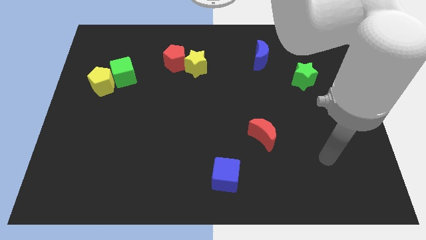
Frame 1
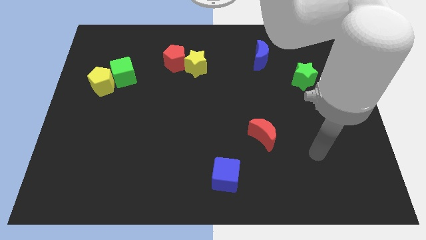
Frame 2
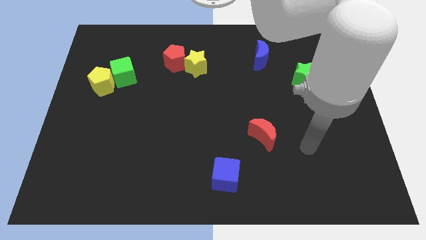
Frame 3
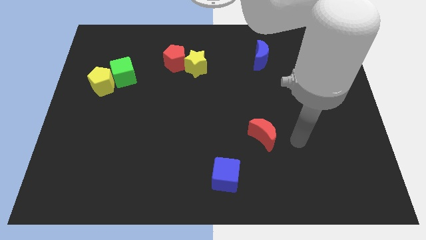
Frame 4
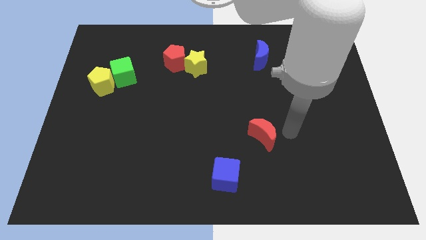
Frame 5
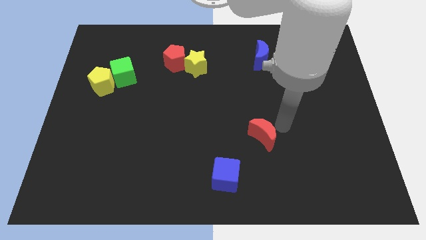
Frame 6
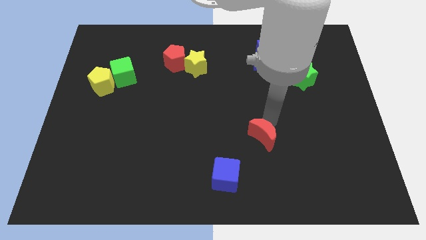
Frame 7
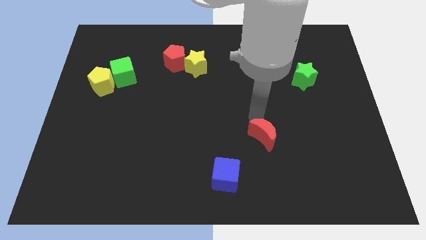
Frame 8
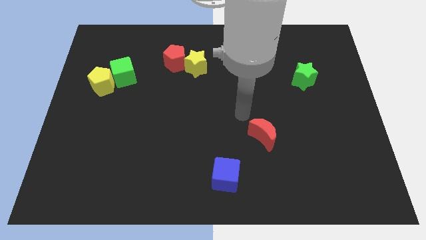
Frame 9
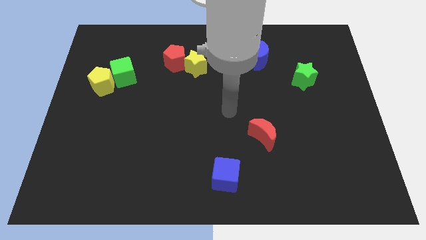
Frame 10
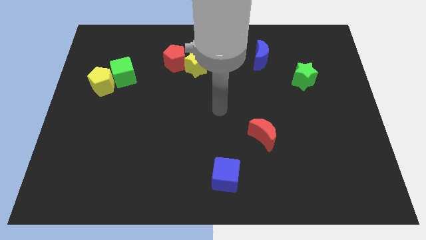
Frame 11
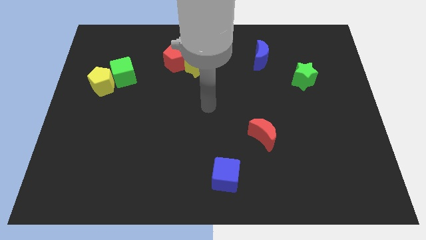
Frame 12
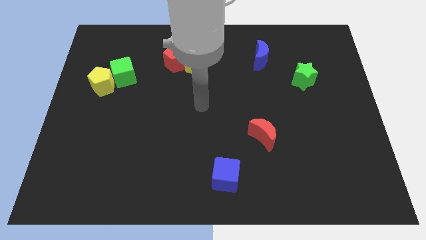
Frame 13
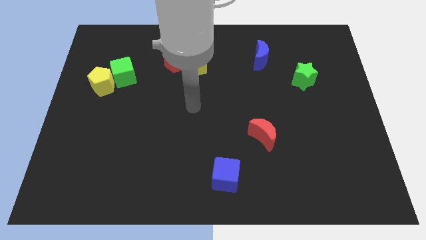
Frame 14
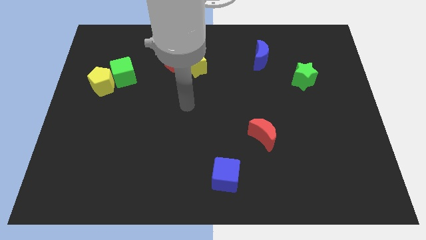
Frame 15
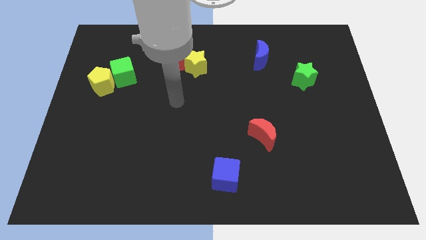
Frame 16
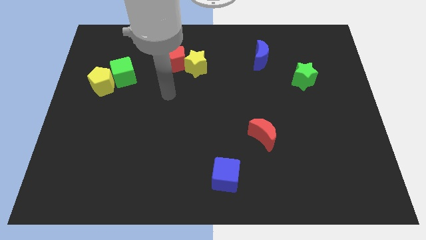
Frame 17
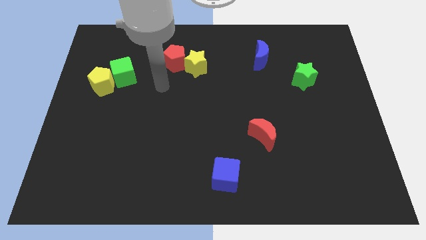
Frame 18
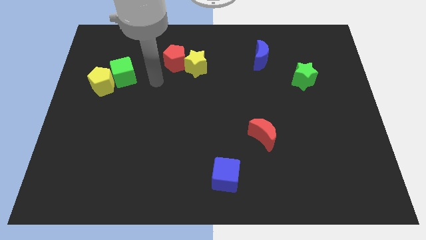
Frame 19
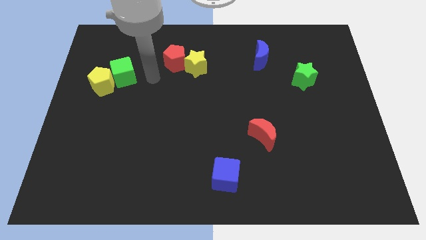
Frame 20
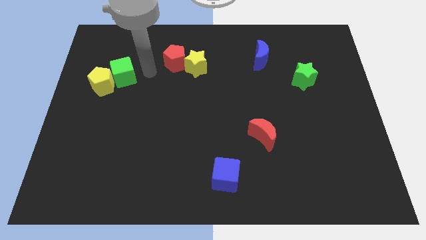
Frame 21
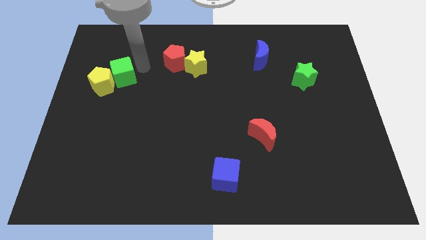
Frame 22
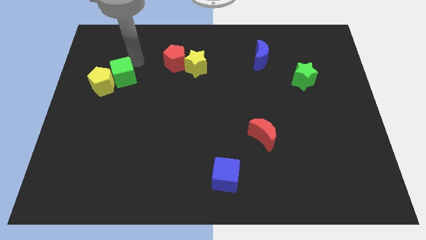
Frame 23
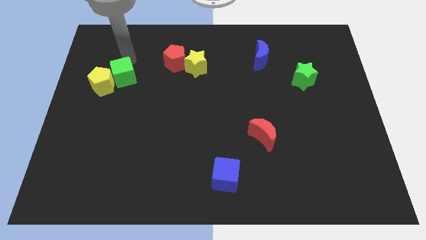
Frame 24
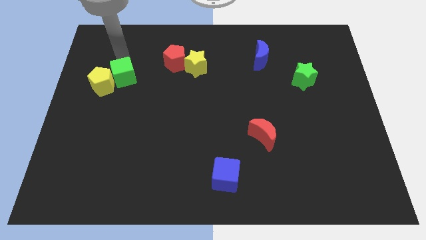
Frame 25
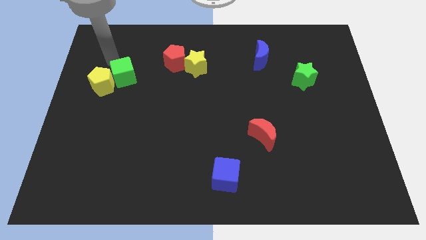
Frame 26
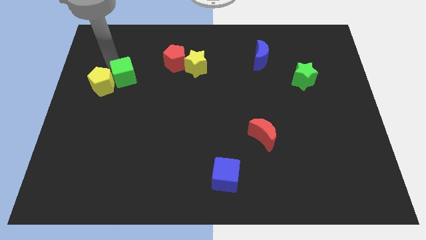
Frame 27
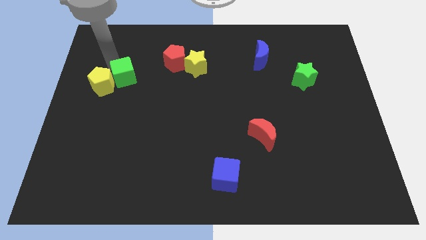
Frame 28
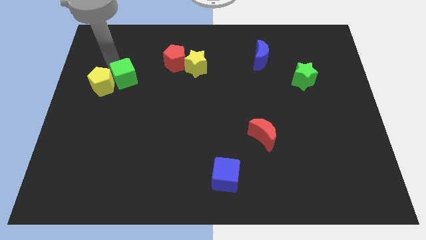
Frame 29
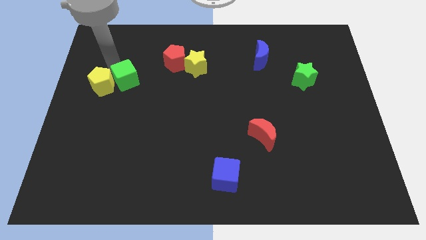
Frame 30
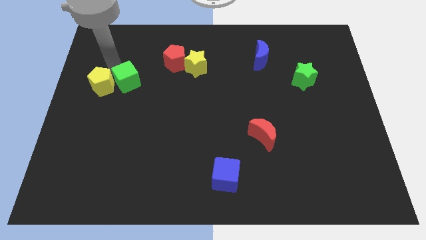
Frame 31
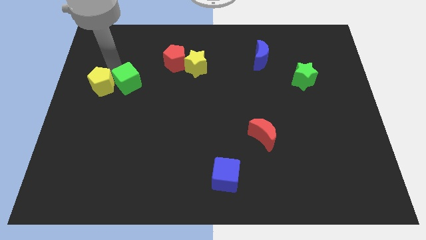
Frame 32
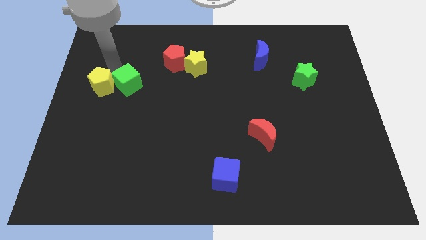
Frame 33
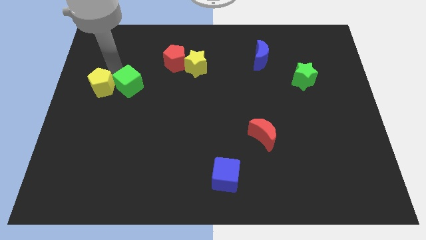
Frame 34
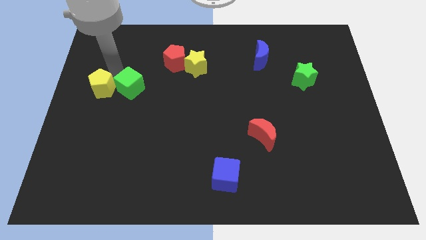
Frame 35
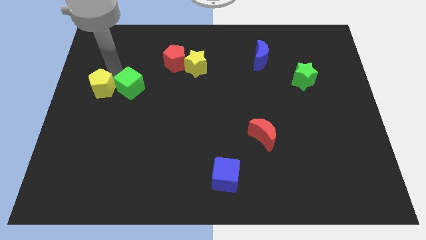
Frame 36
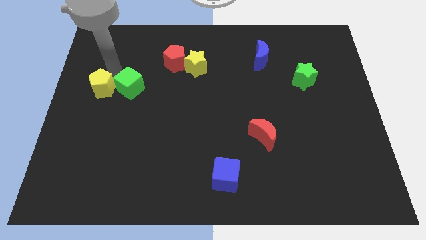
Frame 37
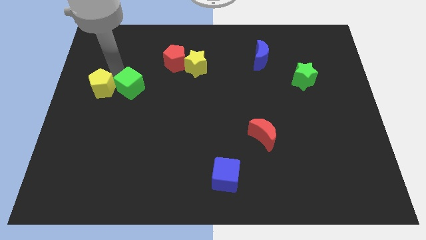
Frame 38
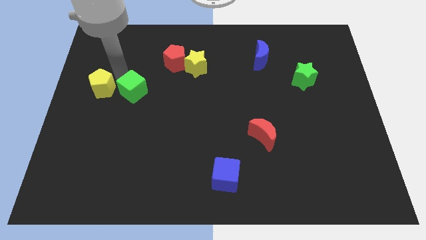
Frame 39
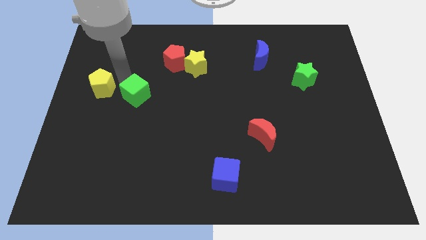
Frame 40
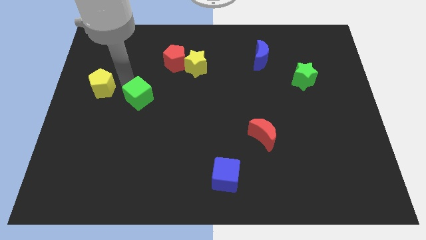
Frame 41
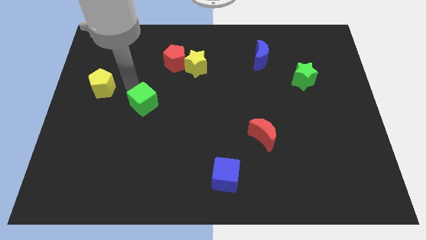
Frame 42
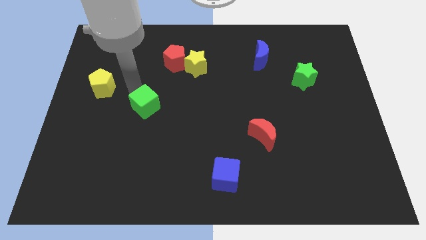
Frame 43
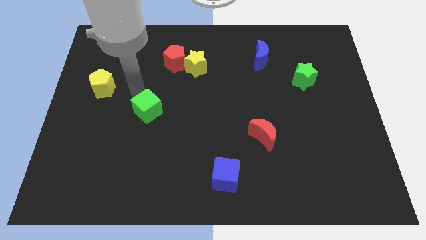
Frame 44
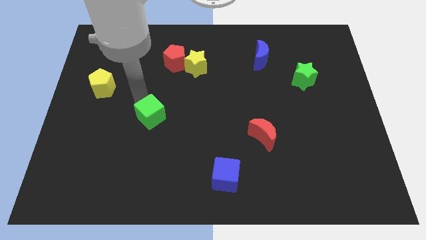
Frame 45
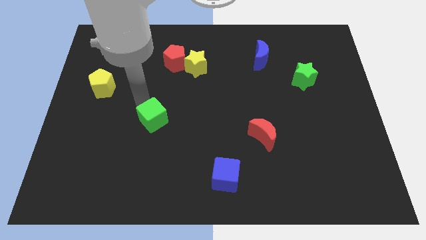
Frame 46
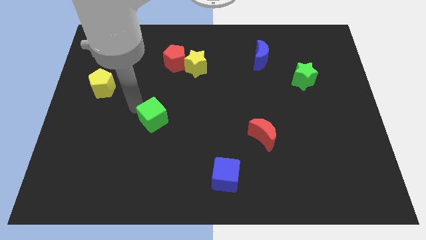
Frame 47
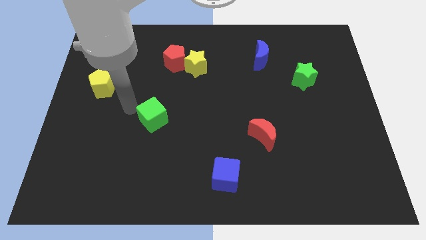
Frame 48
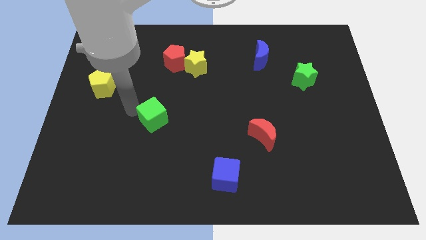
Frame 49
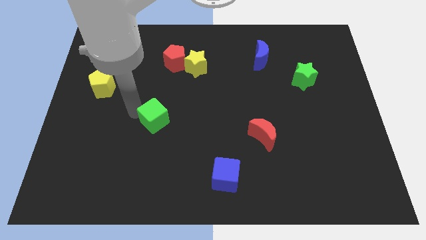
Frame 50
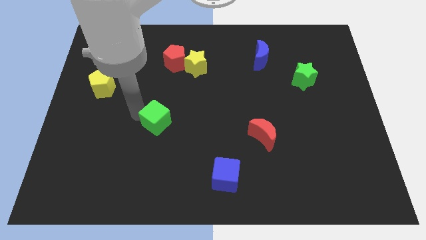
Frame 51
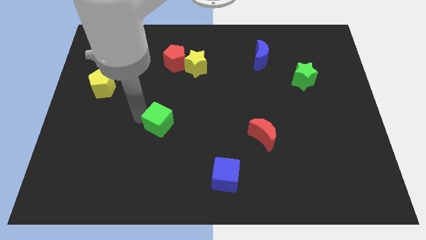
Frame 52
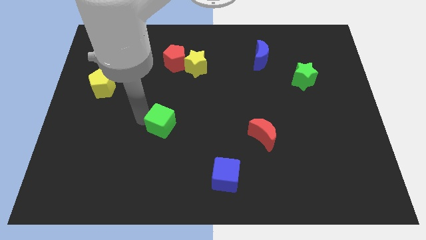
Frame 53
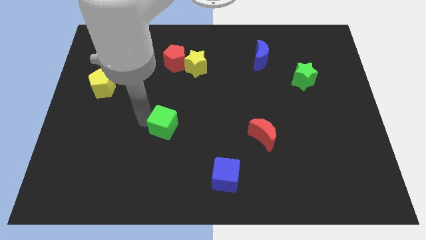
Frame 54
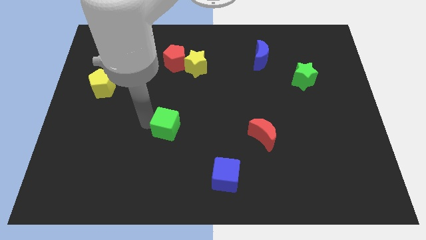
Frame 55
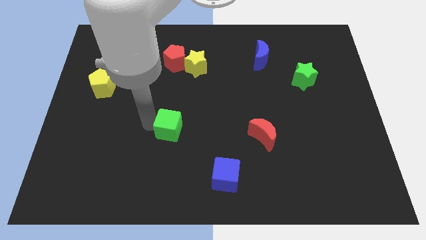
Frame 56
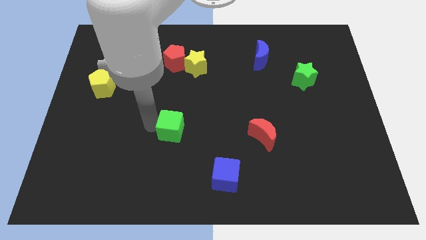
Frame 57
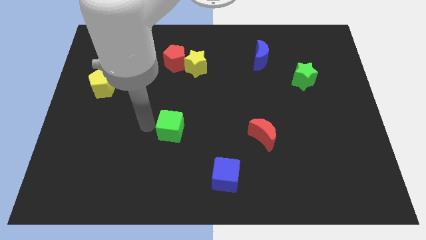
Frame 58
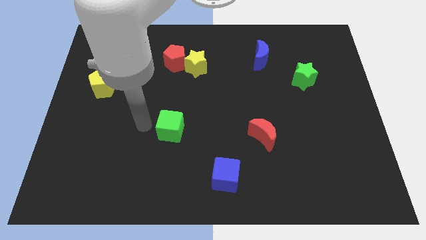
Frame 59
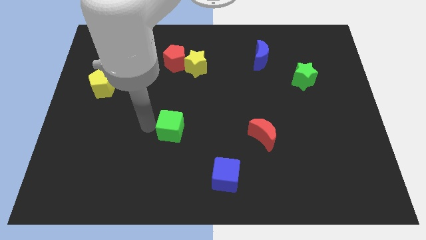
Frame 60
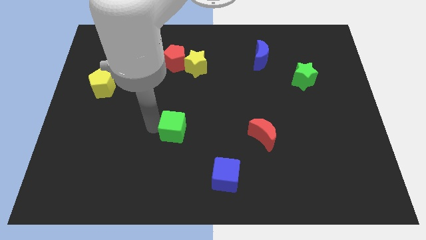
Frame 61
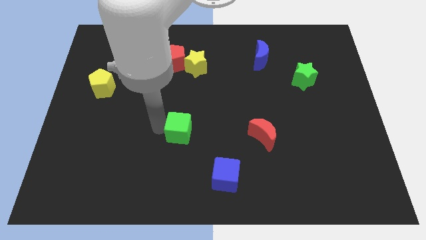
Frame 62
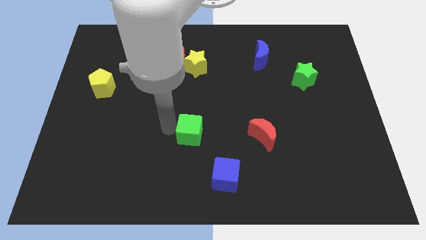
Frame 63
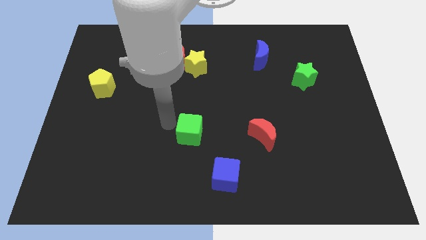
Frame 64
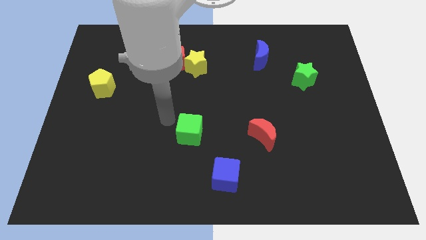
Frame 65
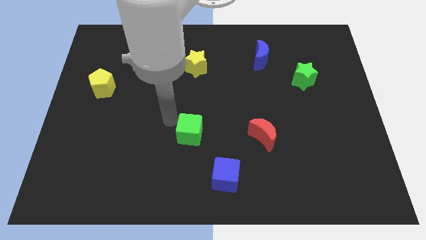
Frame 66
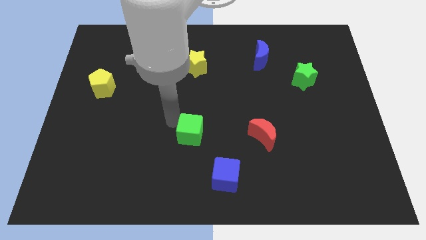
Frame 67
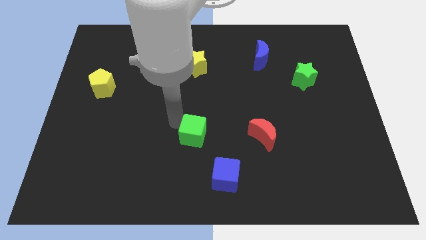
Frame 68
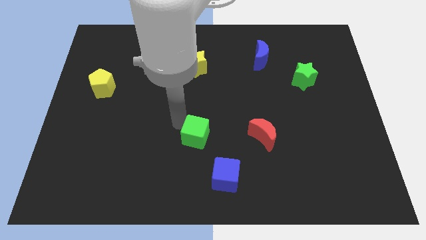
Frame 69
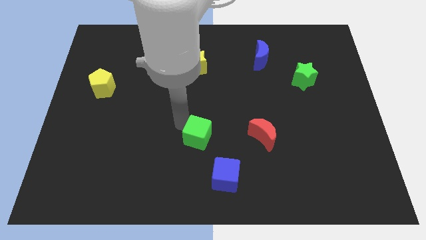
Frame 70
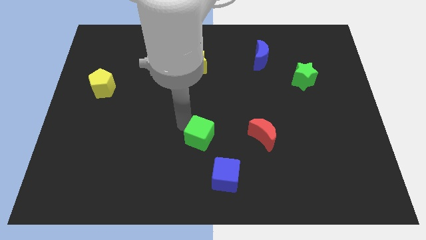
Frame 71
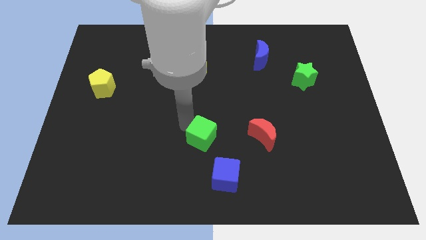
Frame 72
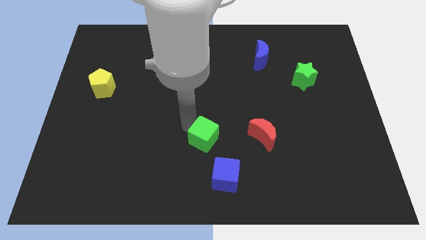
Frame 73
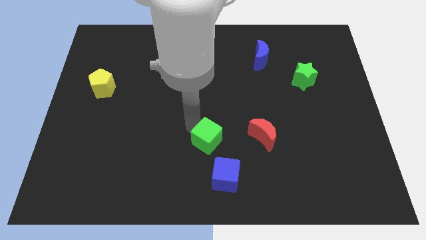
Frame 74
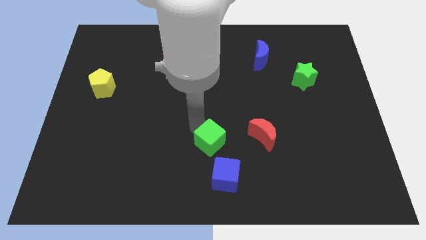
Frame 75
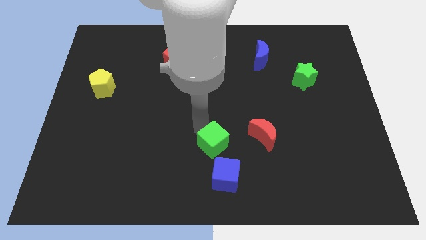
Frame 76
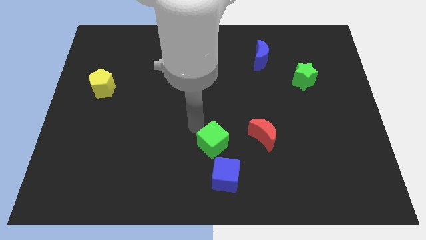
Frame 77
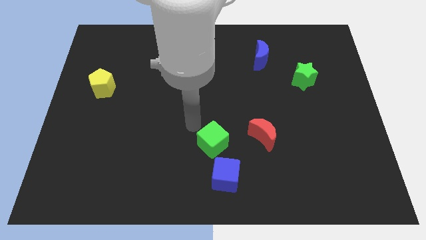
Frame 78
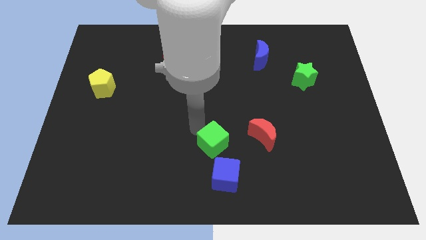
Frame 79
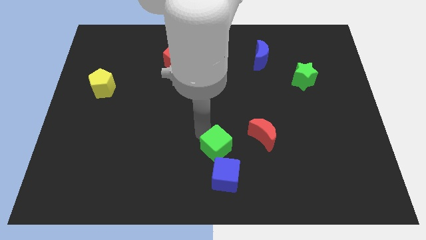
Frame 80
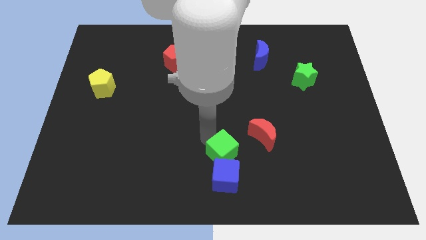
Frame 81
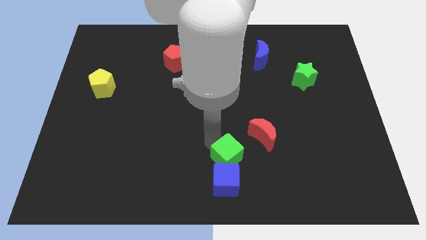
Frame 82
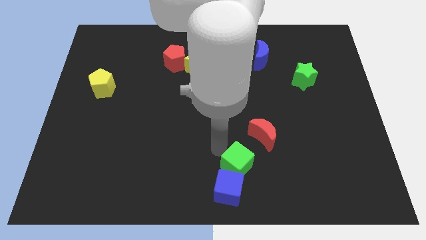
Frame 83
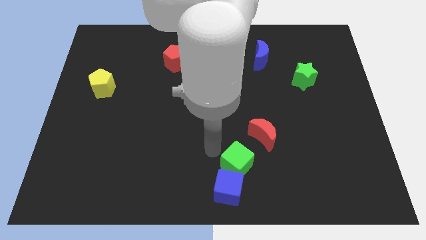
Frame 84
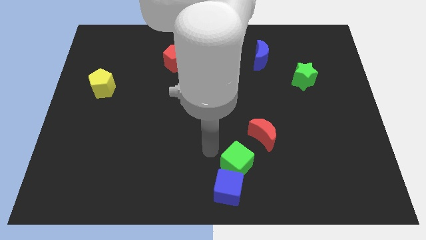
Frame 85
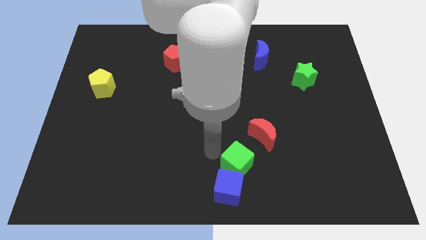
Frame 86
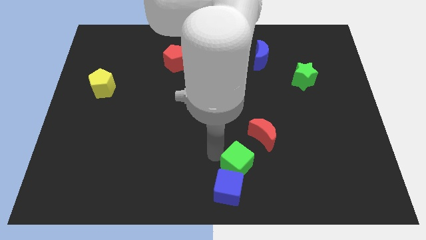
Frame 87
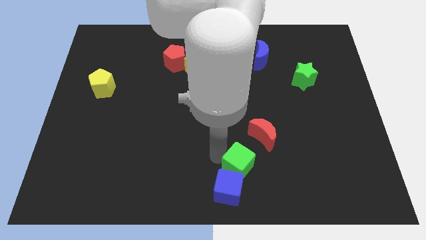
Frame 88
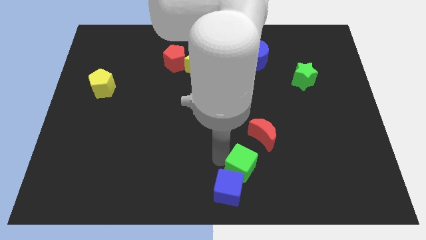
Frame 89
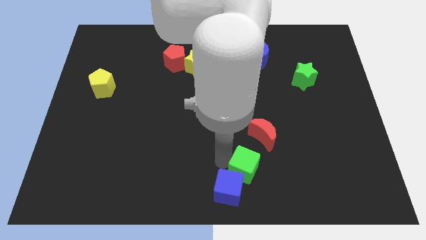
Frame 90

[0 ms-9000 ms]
push the green cube below the red moon
